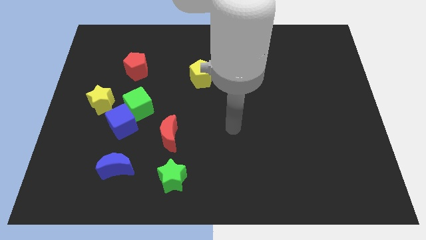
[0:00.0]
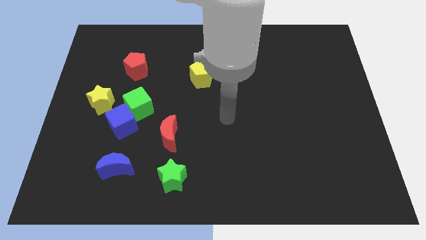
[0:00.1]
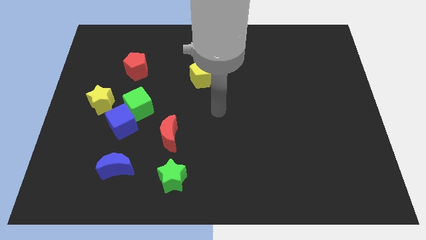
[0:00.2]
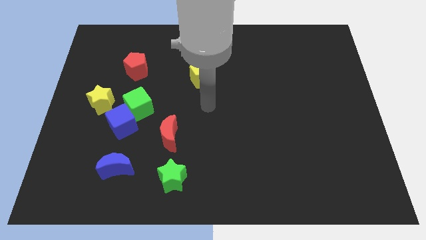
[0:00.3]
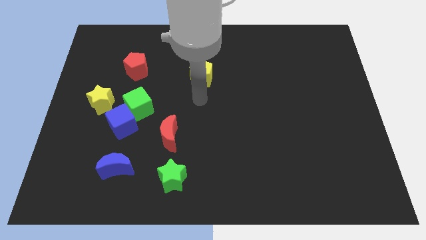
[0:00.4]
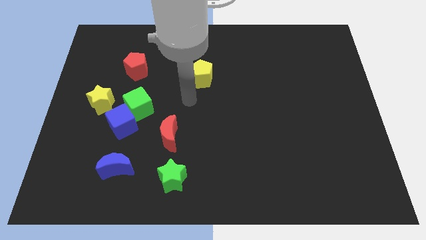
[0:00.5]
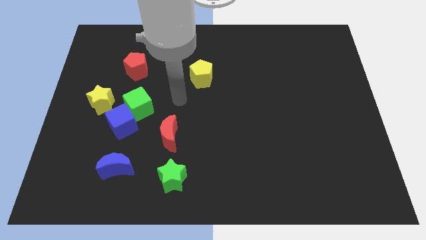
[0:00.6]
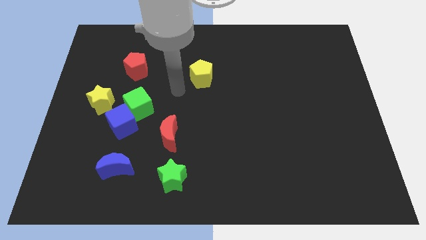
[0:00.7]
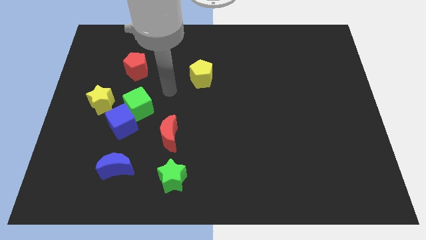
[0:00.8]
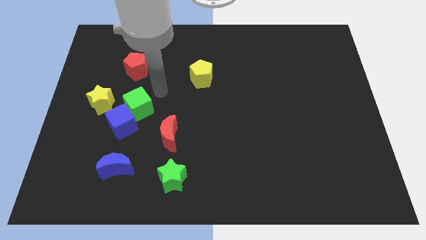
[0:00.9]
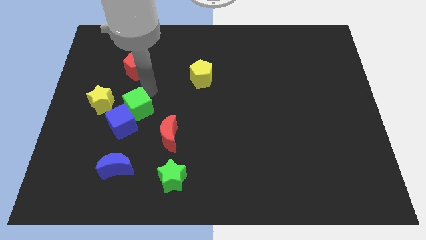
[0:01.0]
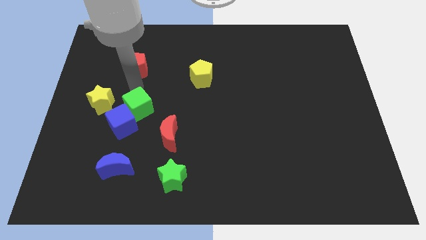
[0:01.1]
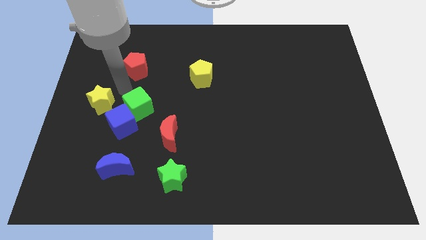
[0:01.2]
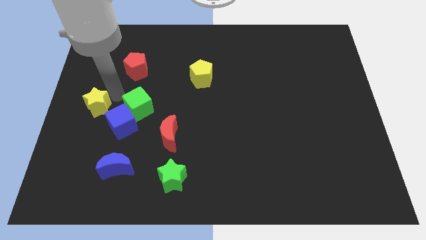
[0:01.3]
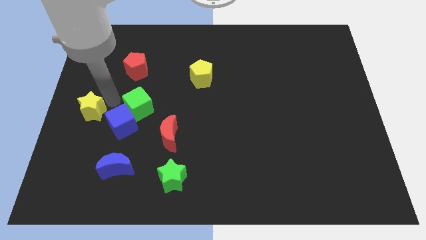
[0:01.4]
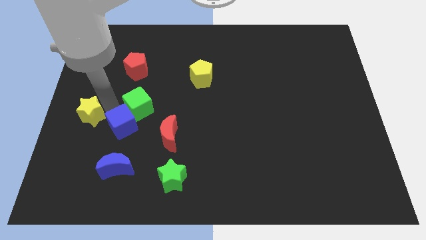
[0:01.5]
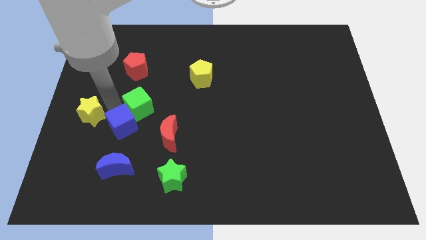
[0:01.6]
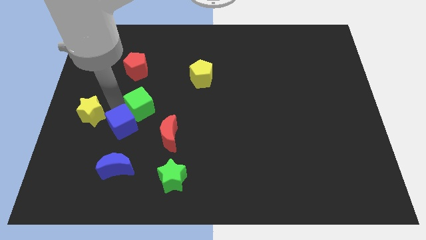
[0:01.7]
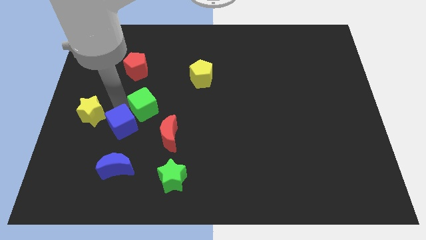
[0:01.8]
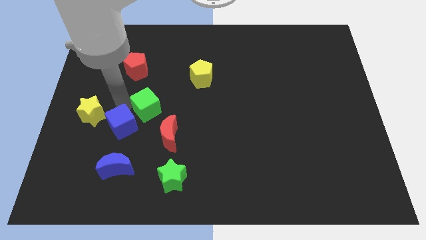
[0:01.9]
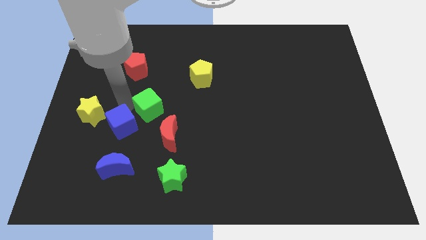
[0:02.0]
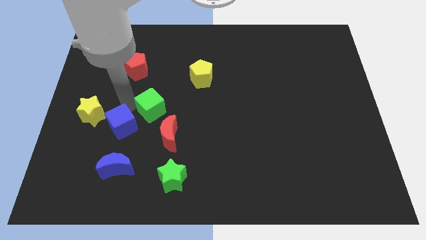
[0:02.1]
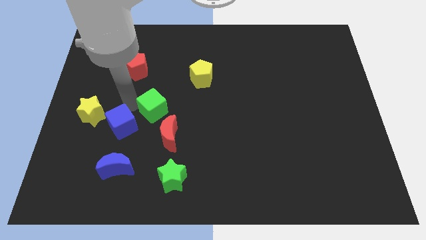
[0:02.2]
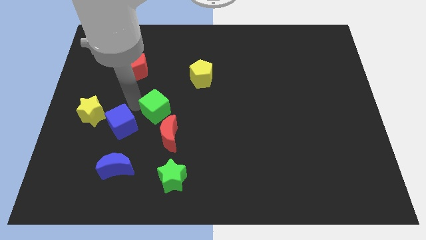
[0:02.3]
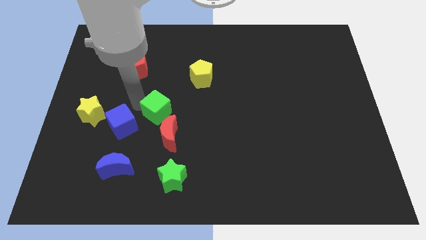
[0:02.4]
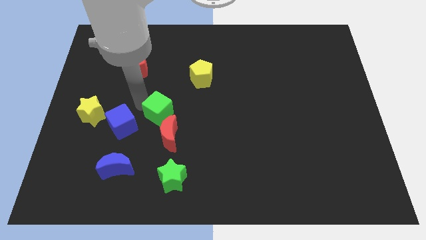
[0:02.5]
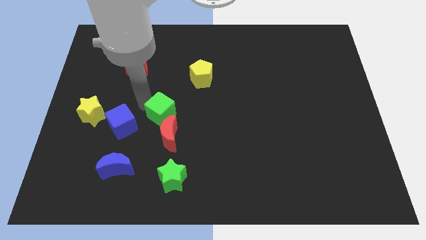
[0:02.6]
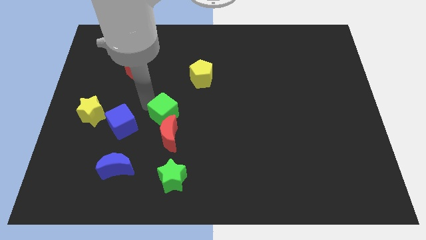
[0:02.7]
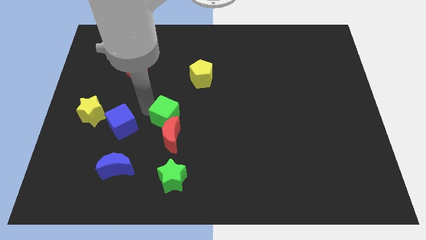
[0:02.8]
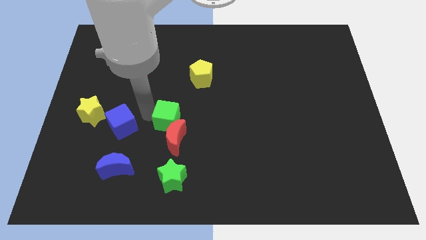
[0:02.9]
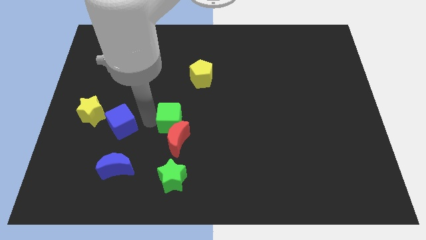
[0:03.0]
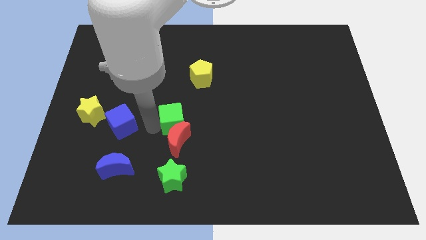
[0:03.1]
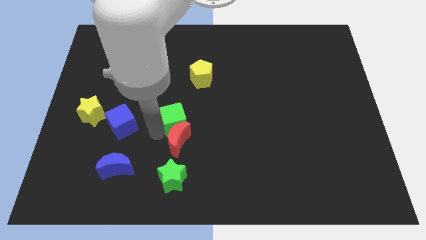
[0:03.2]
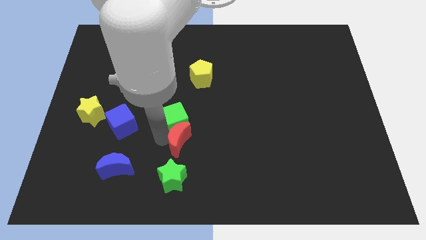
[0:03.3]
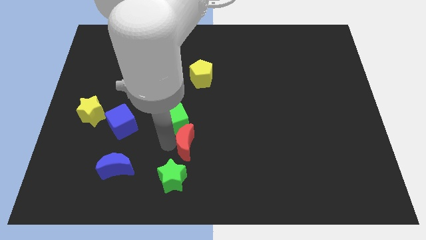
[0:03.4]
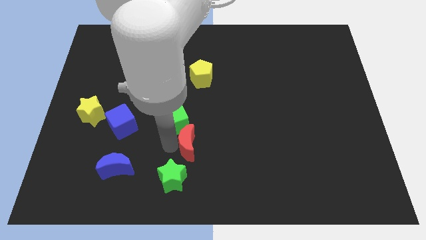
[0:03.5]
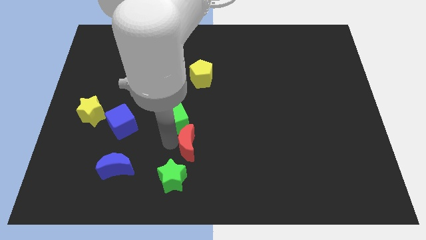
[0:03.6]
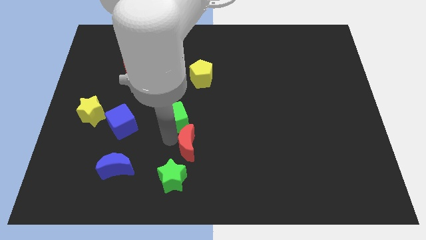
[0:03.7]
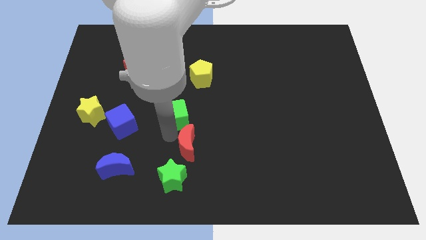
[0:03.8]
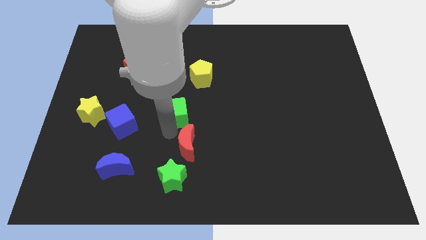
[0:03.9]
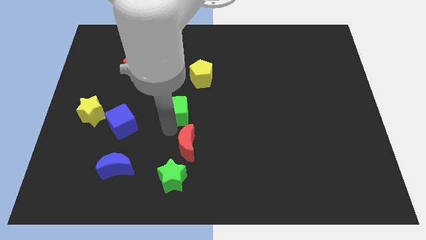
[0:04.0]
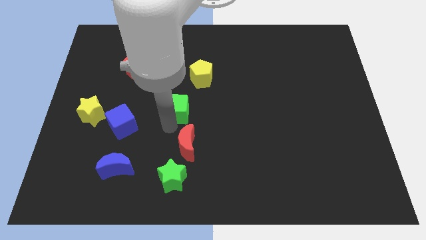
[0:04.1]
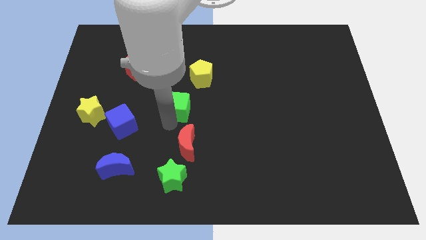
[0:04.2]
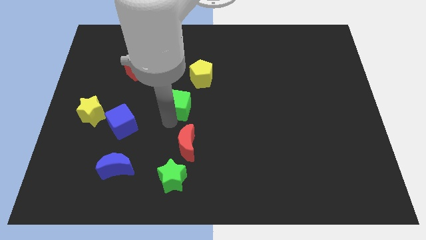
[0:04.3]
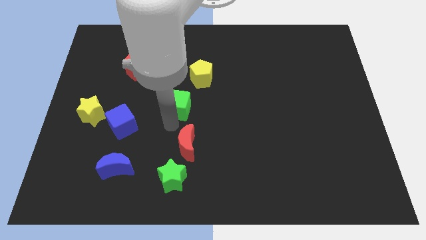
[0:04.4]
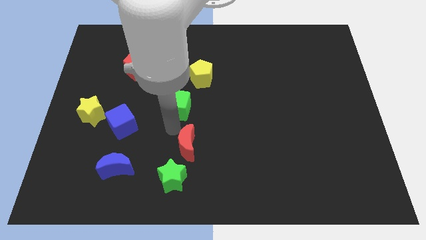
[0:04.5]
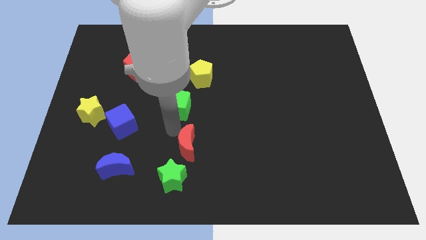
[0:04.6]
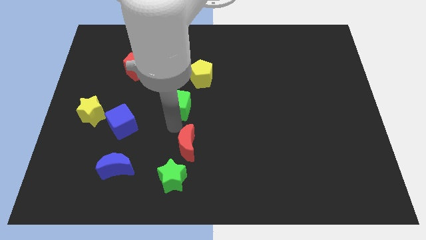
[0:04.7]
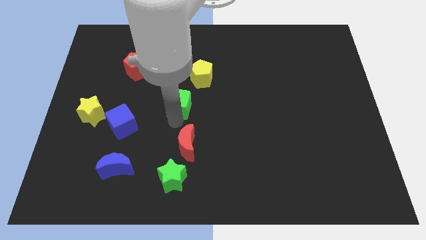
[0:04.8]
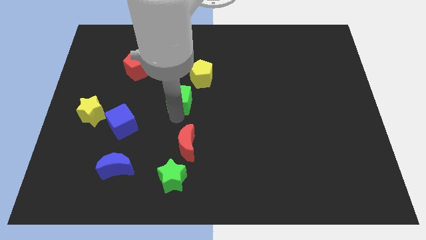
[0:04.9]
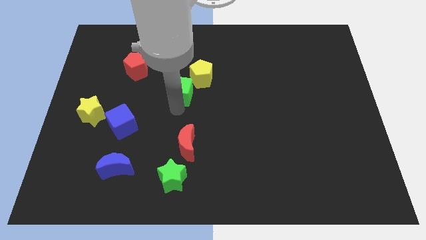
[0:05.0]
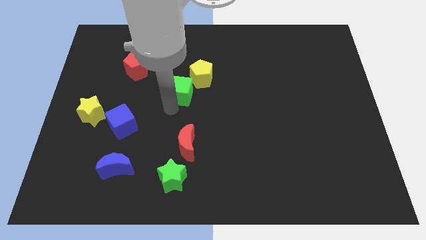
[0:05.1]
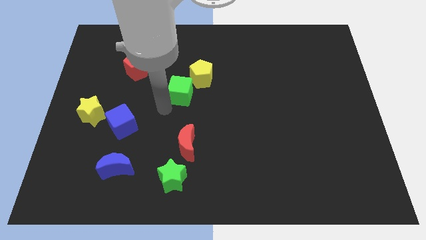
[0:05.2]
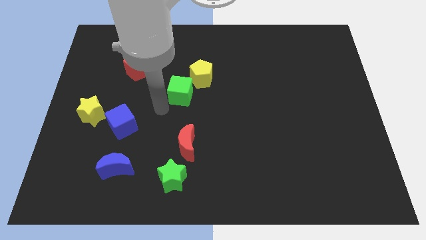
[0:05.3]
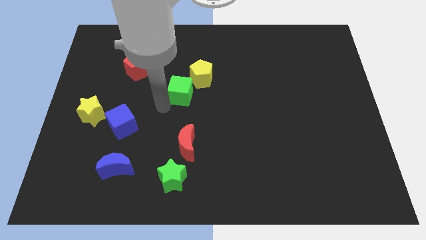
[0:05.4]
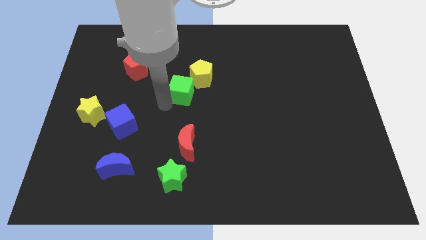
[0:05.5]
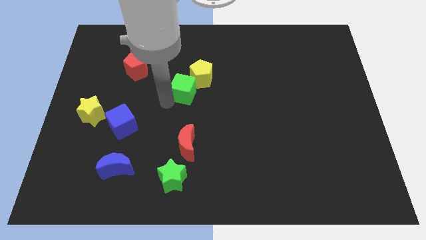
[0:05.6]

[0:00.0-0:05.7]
put the green cube to the yellow pentagon

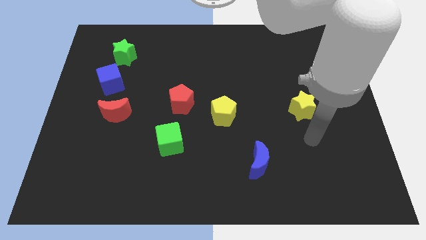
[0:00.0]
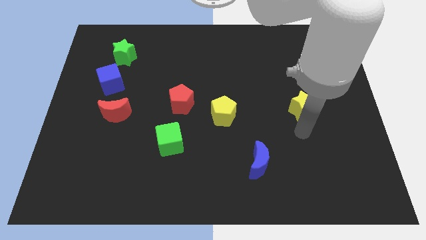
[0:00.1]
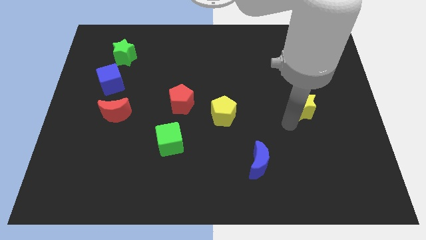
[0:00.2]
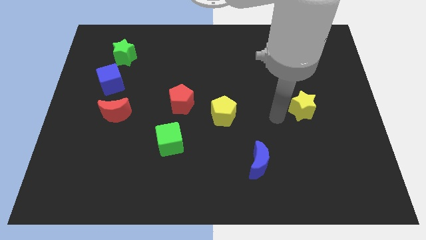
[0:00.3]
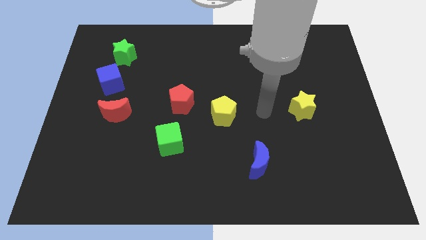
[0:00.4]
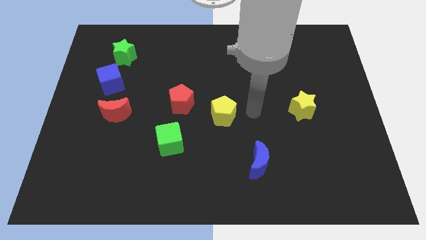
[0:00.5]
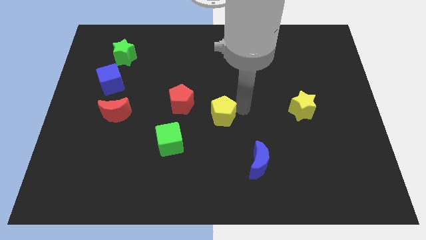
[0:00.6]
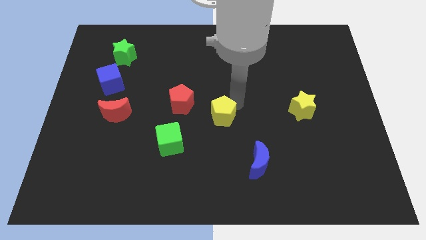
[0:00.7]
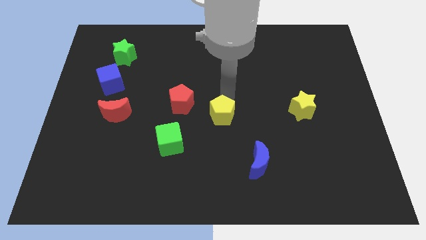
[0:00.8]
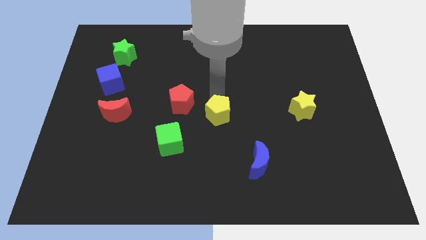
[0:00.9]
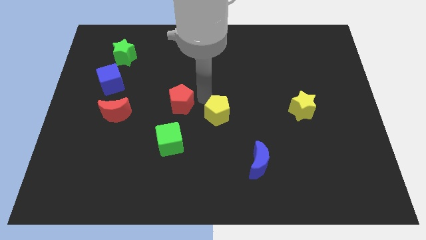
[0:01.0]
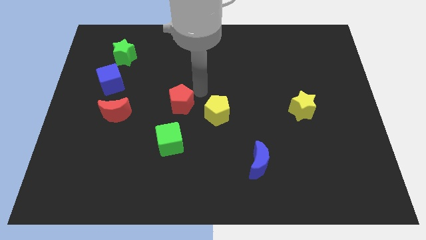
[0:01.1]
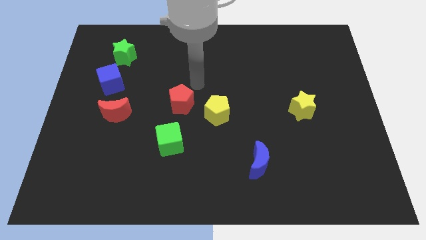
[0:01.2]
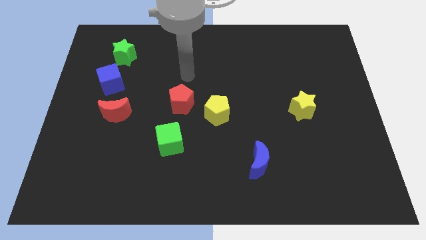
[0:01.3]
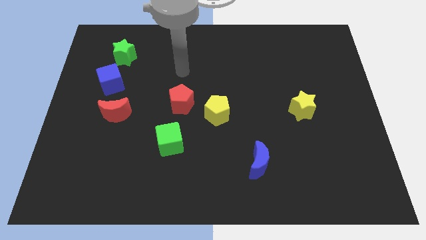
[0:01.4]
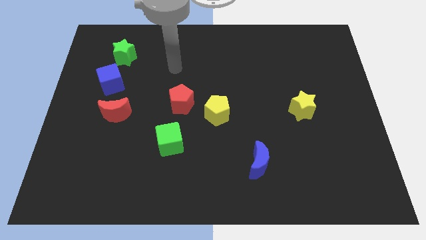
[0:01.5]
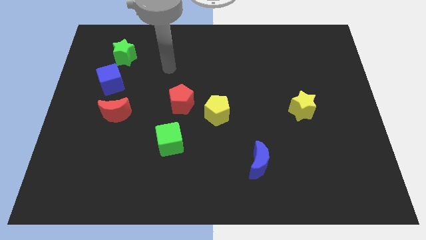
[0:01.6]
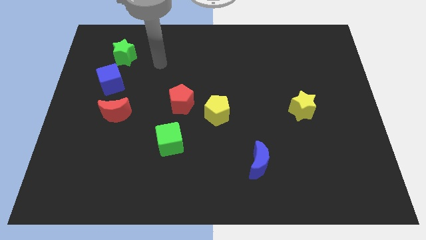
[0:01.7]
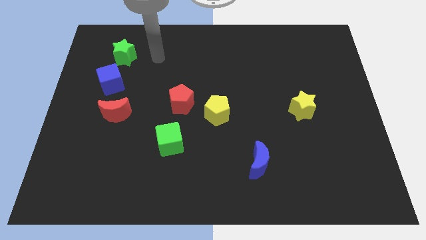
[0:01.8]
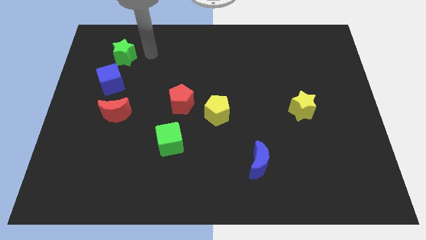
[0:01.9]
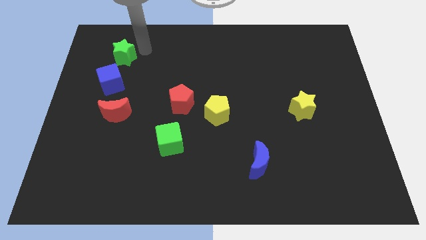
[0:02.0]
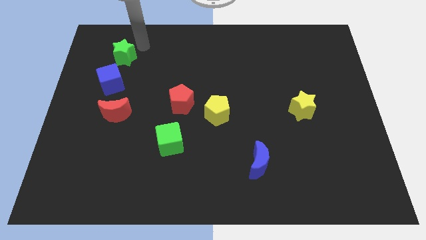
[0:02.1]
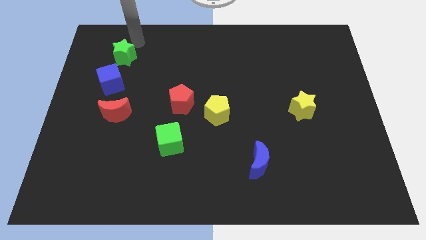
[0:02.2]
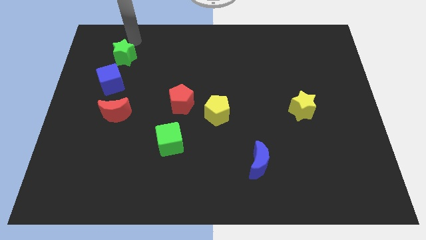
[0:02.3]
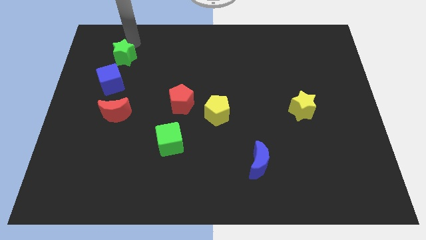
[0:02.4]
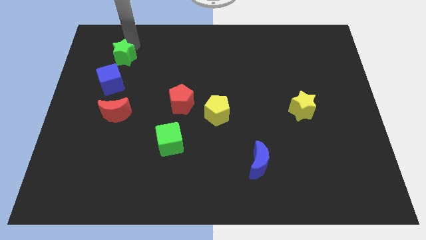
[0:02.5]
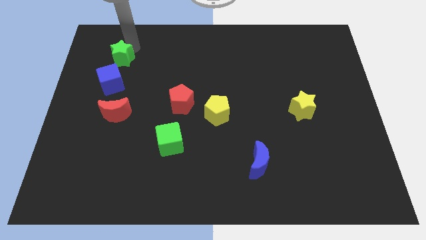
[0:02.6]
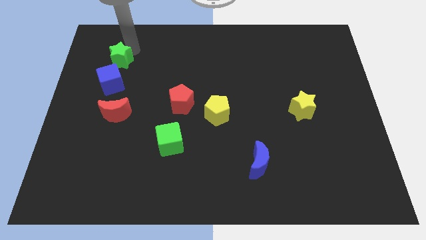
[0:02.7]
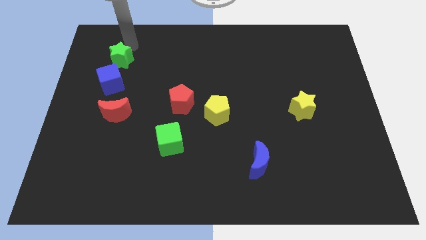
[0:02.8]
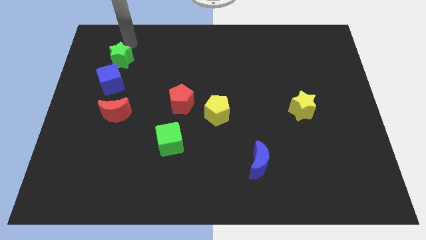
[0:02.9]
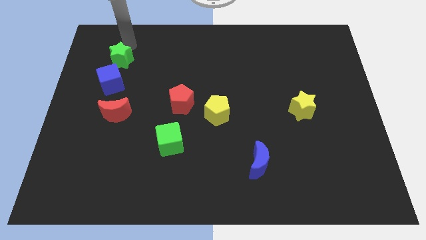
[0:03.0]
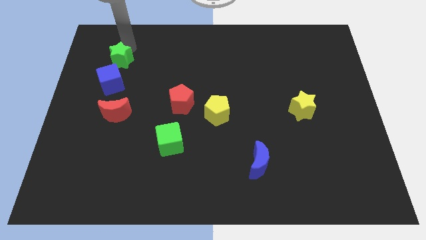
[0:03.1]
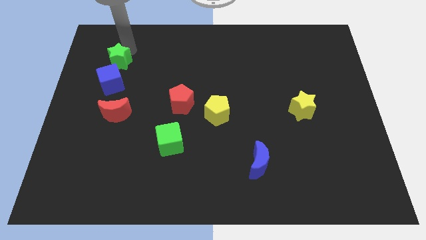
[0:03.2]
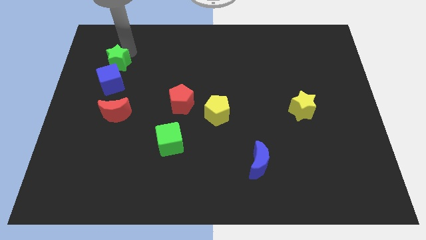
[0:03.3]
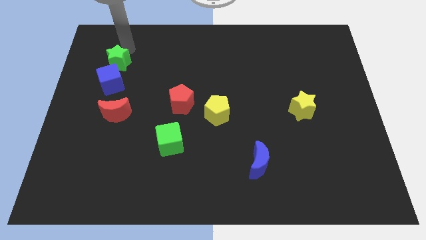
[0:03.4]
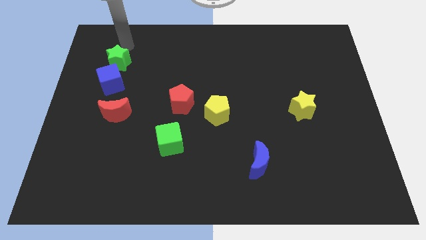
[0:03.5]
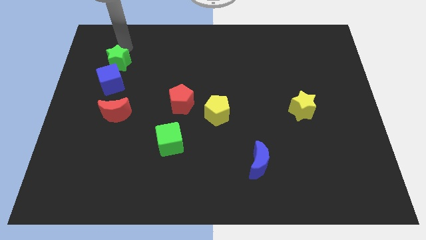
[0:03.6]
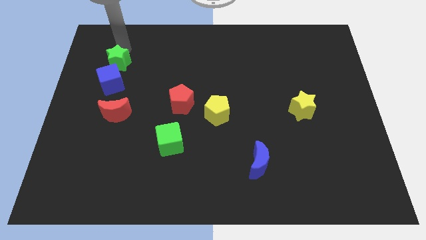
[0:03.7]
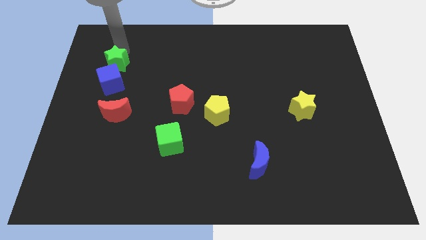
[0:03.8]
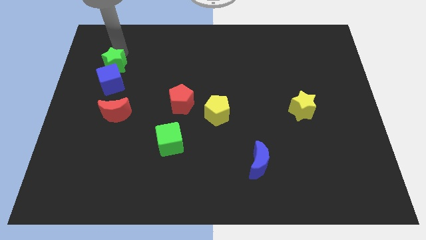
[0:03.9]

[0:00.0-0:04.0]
push the green star next to the blue cube
